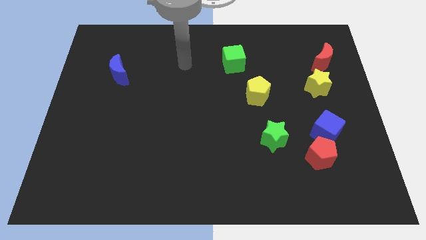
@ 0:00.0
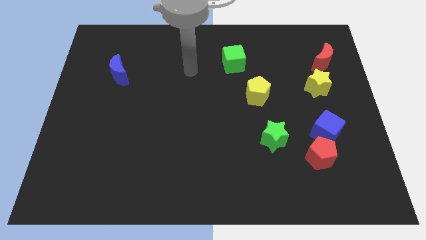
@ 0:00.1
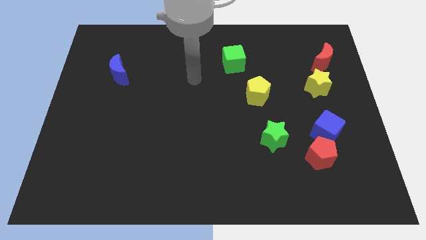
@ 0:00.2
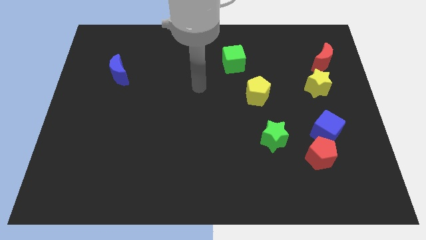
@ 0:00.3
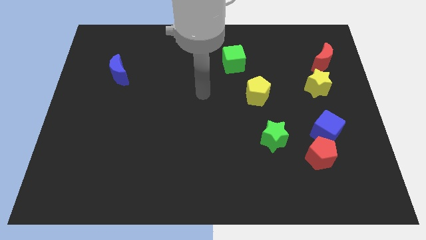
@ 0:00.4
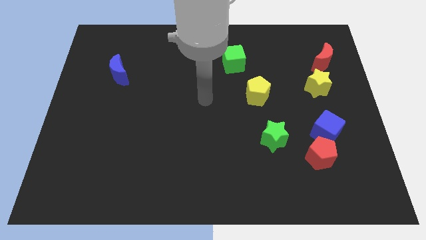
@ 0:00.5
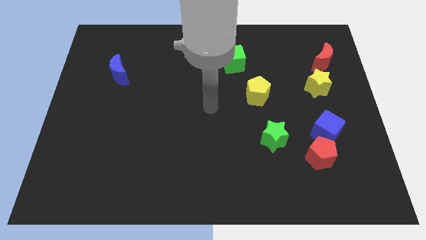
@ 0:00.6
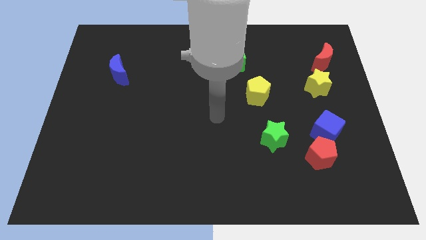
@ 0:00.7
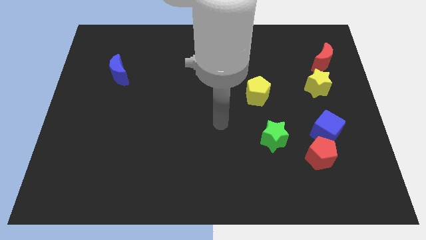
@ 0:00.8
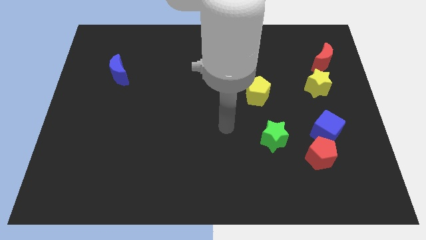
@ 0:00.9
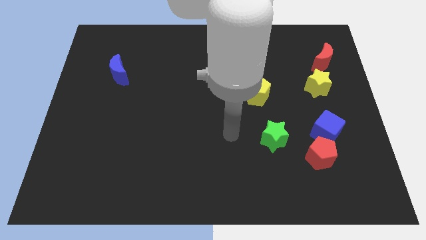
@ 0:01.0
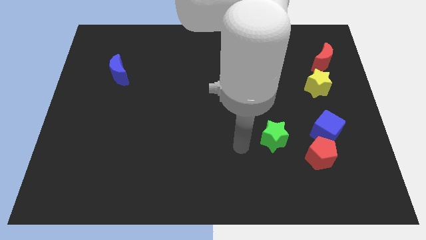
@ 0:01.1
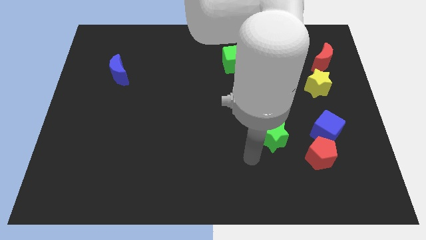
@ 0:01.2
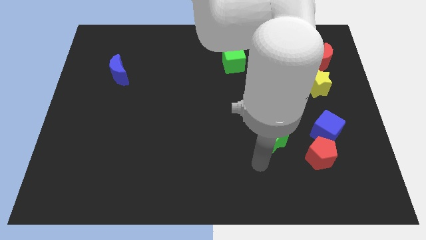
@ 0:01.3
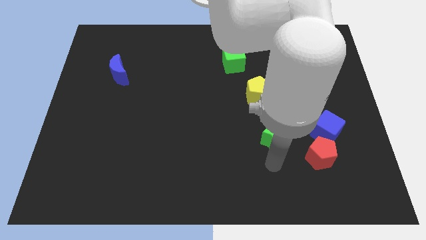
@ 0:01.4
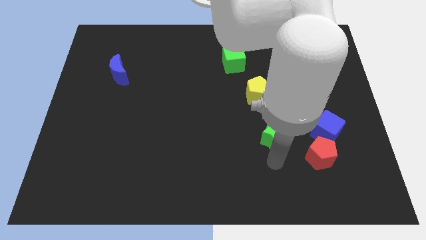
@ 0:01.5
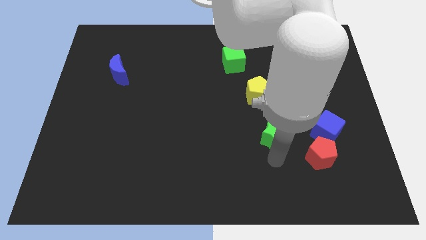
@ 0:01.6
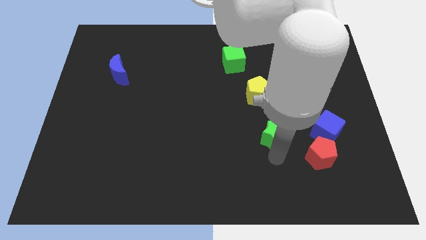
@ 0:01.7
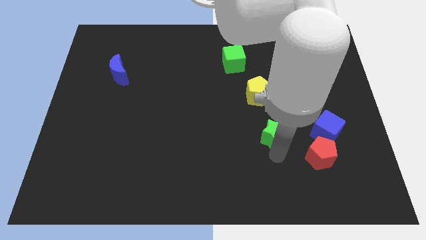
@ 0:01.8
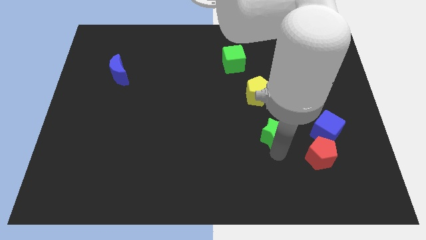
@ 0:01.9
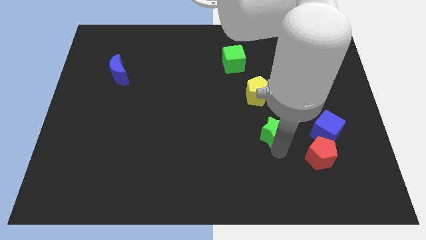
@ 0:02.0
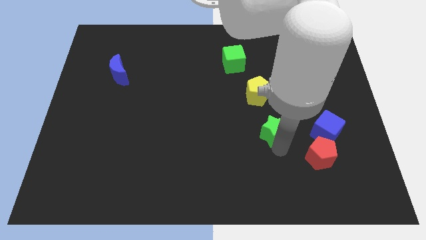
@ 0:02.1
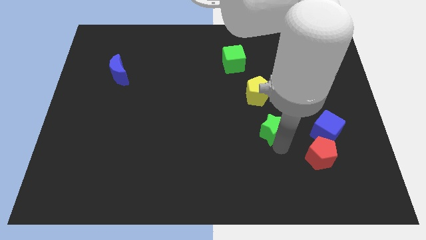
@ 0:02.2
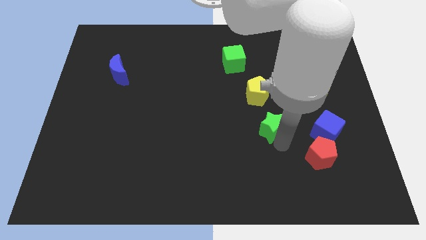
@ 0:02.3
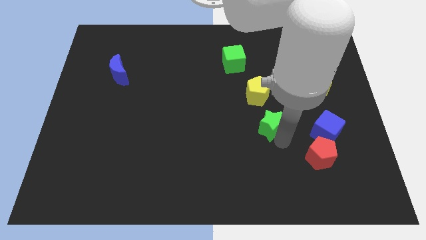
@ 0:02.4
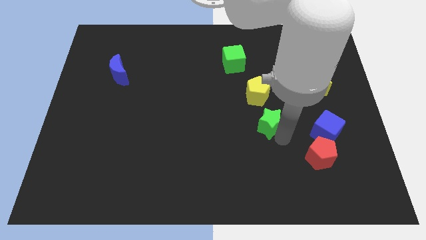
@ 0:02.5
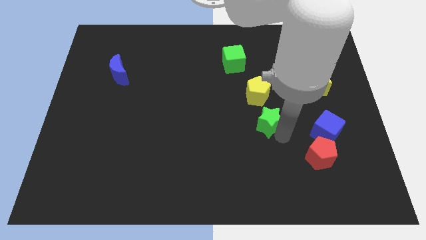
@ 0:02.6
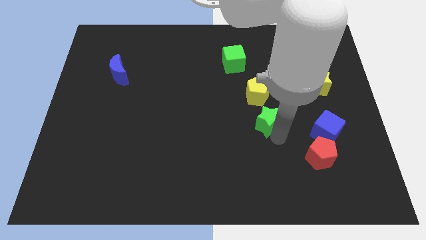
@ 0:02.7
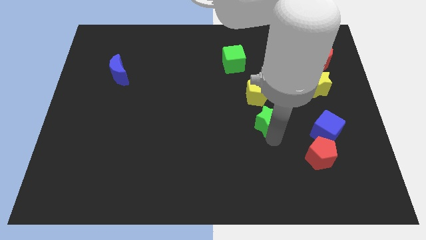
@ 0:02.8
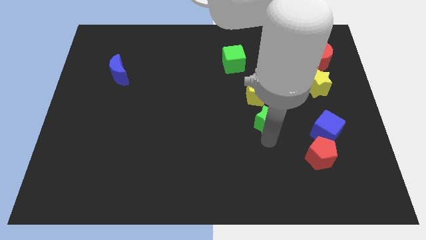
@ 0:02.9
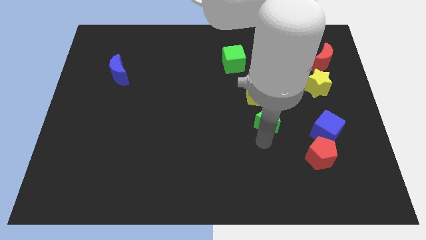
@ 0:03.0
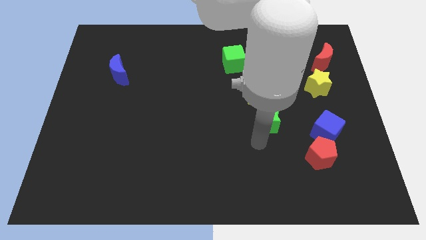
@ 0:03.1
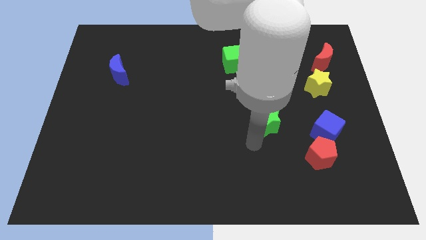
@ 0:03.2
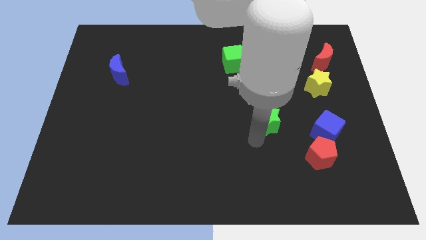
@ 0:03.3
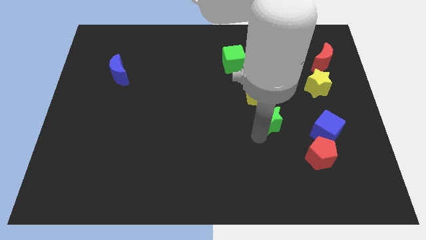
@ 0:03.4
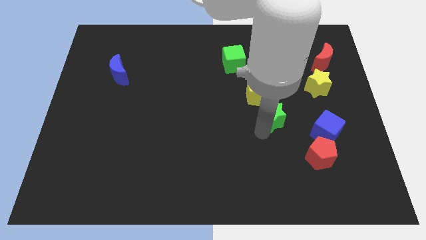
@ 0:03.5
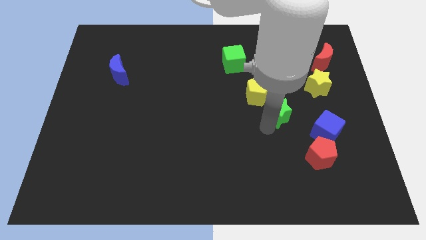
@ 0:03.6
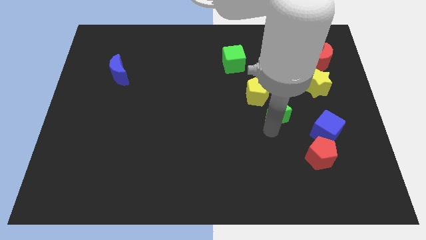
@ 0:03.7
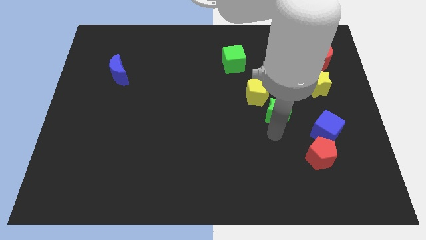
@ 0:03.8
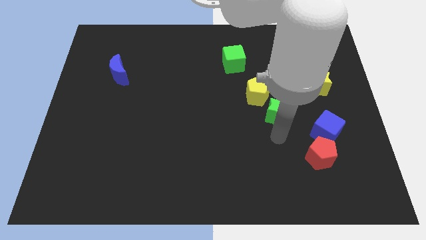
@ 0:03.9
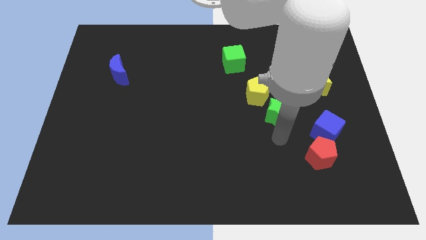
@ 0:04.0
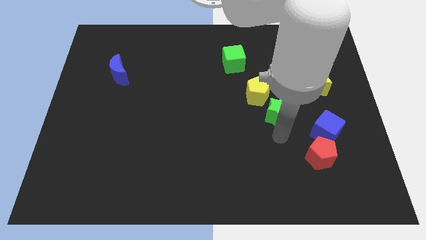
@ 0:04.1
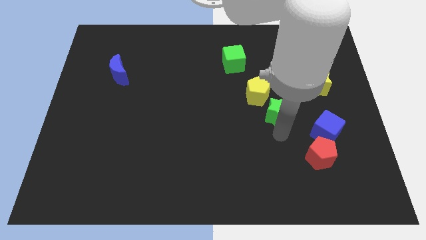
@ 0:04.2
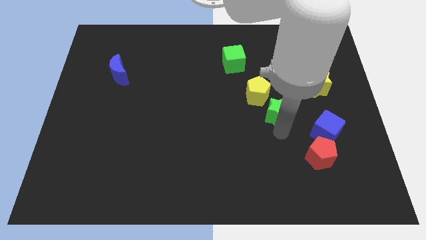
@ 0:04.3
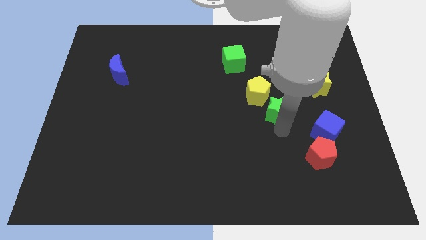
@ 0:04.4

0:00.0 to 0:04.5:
slightly slide the green star up

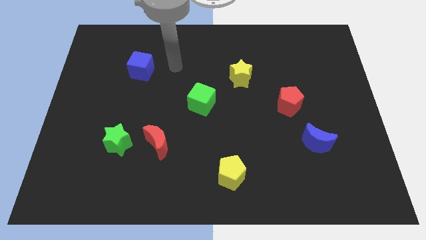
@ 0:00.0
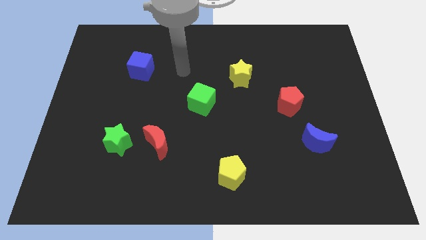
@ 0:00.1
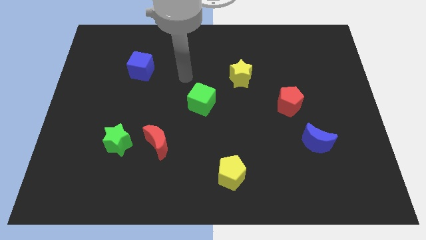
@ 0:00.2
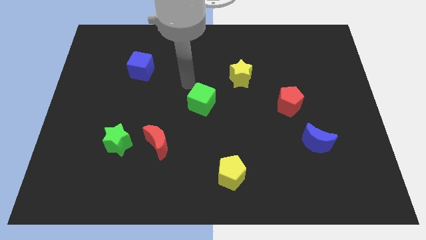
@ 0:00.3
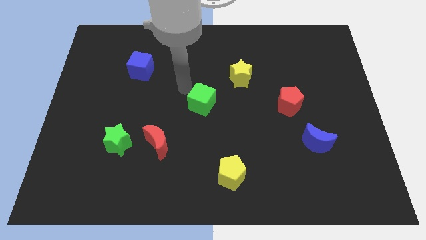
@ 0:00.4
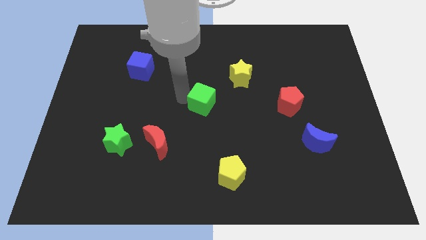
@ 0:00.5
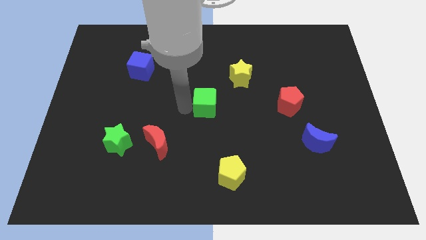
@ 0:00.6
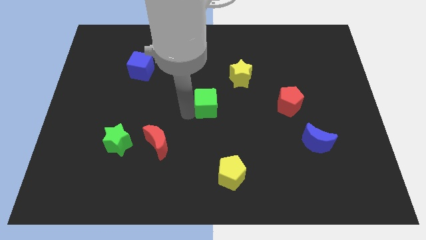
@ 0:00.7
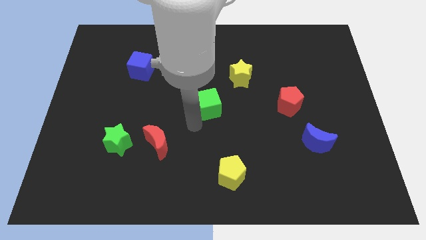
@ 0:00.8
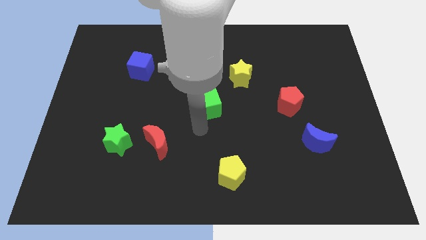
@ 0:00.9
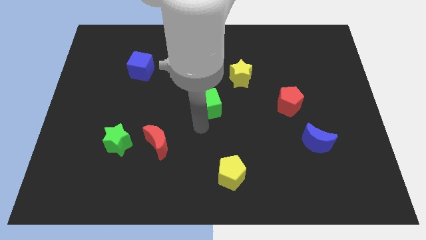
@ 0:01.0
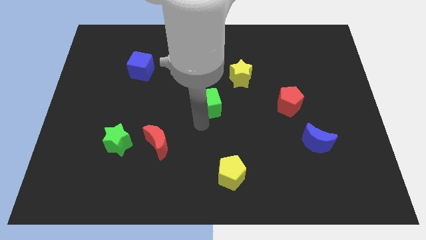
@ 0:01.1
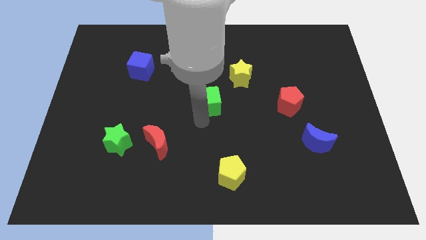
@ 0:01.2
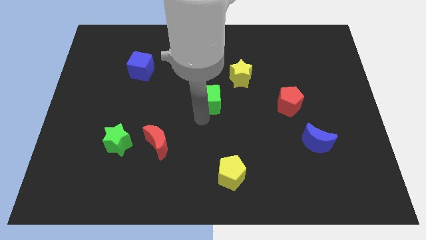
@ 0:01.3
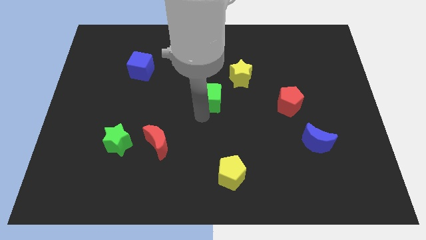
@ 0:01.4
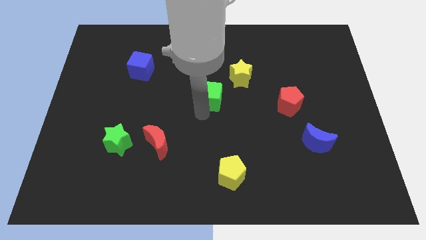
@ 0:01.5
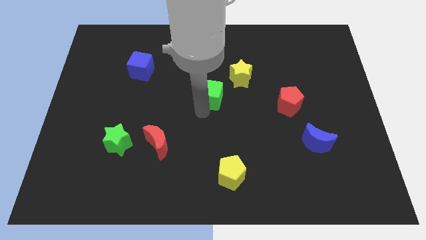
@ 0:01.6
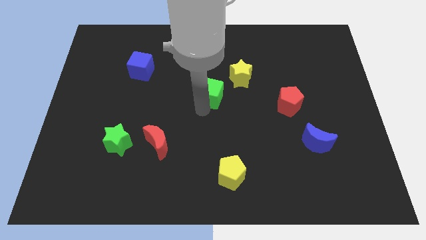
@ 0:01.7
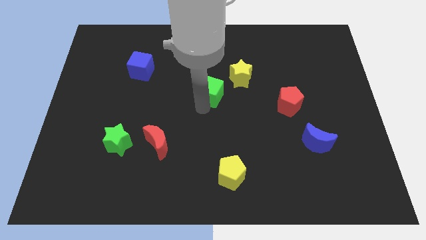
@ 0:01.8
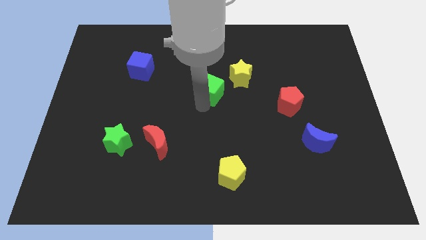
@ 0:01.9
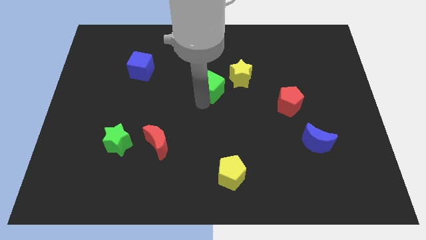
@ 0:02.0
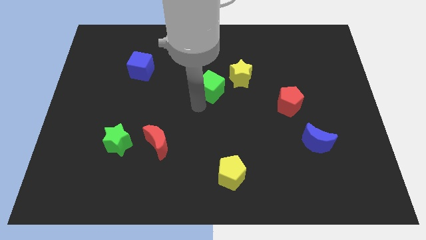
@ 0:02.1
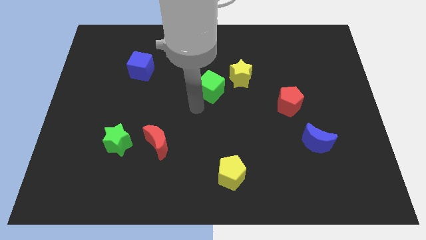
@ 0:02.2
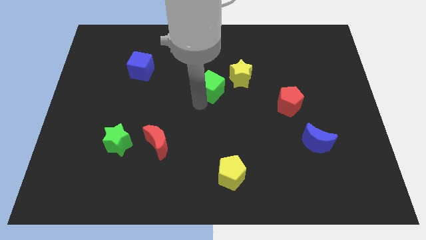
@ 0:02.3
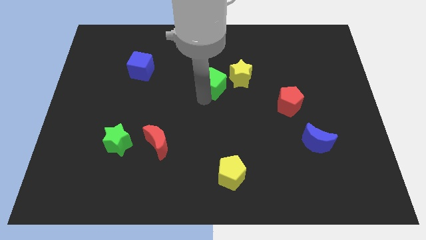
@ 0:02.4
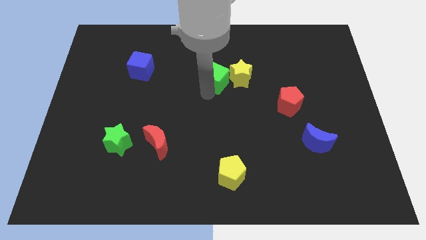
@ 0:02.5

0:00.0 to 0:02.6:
push the green cube a little diagonally up and to the right

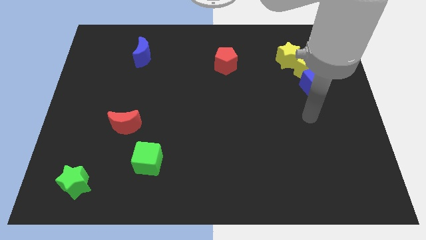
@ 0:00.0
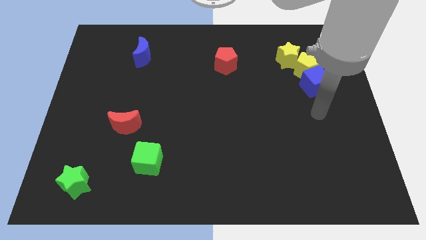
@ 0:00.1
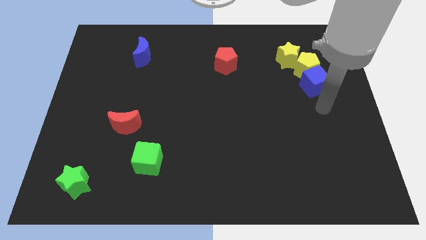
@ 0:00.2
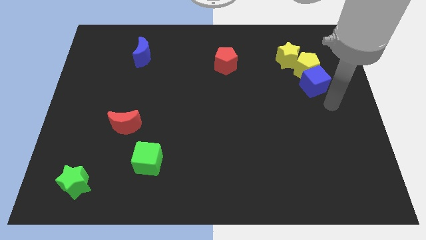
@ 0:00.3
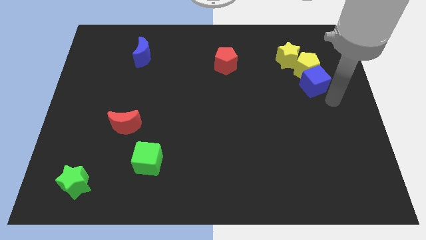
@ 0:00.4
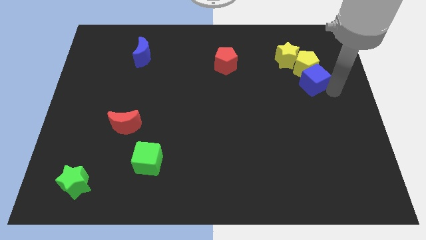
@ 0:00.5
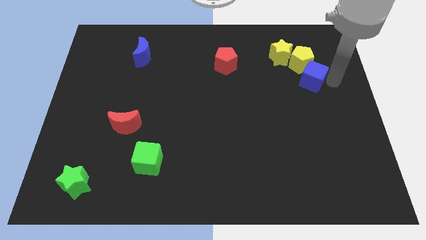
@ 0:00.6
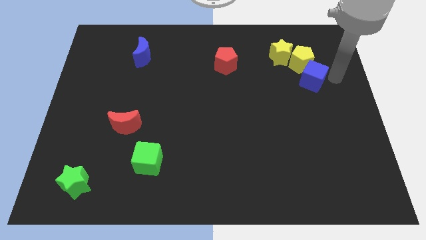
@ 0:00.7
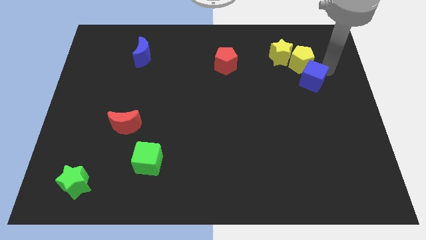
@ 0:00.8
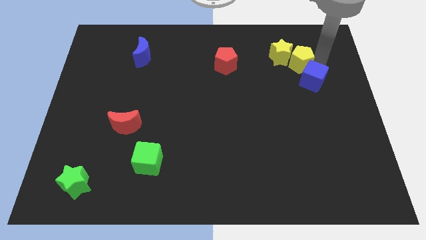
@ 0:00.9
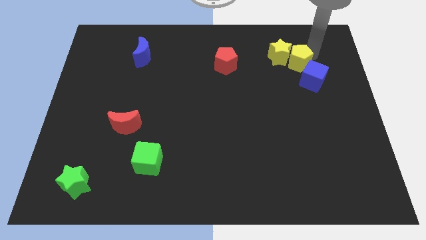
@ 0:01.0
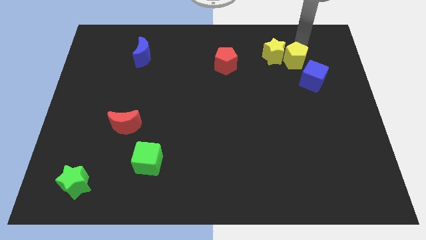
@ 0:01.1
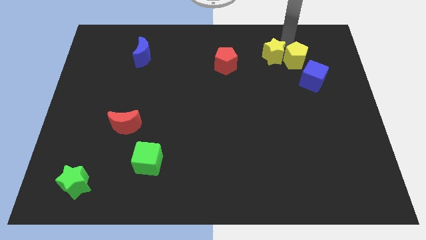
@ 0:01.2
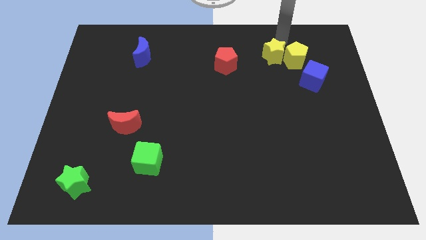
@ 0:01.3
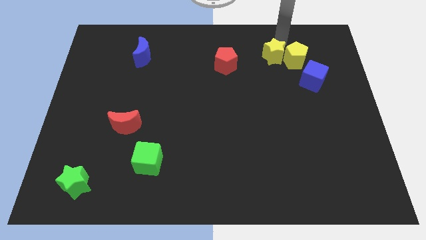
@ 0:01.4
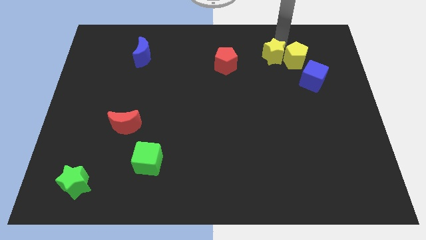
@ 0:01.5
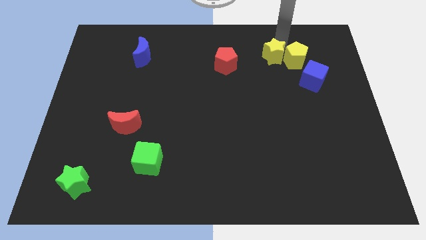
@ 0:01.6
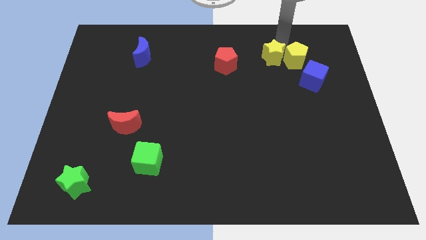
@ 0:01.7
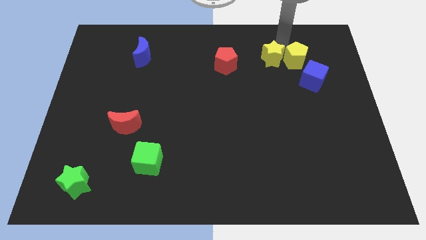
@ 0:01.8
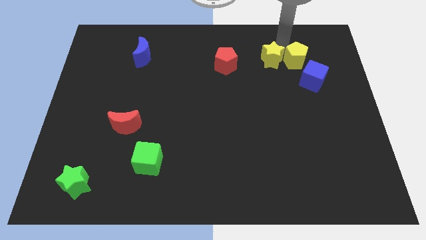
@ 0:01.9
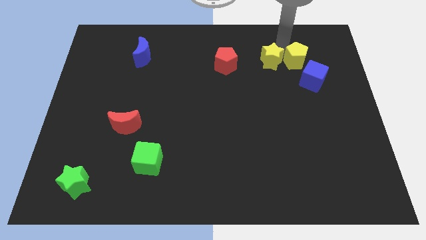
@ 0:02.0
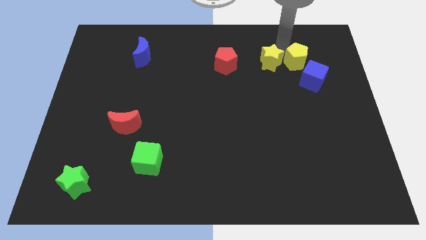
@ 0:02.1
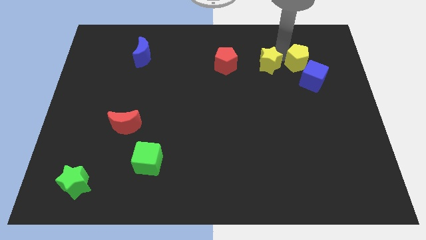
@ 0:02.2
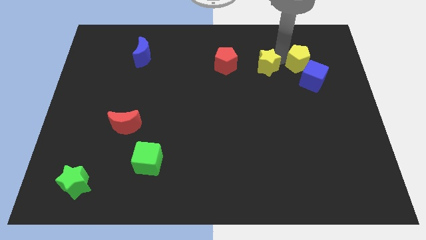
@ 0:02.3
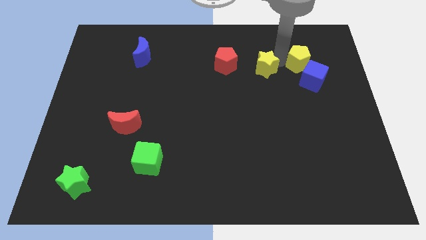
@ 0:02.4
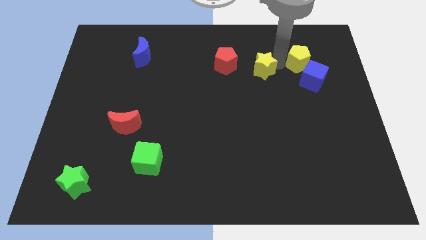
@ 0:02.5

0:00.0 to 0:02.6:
move the yellow star a little bit down and to the left
